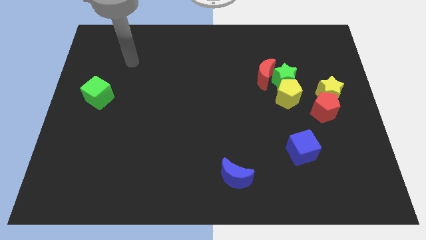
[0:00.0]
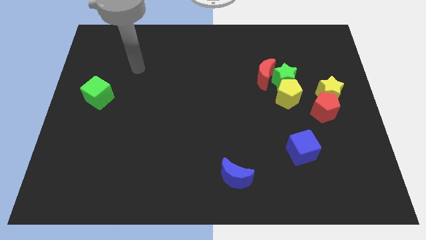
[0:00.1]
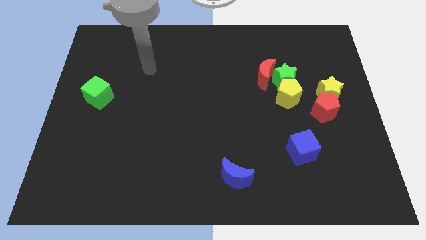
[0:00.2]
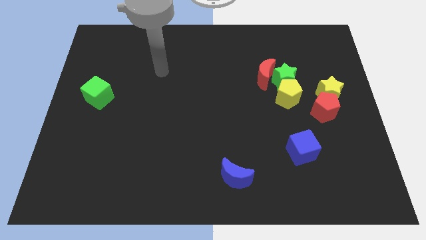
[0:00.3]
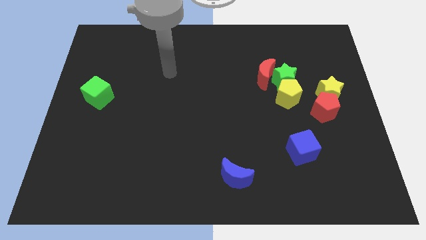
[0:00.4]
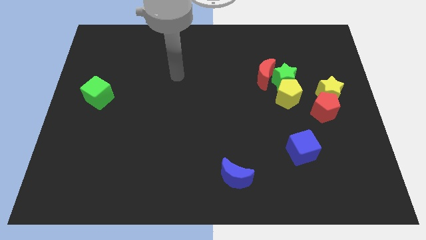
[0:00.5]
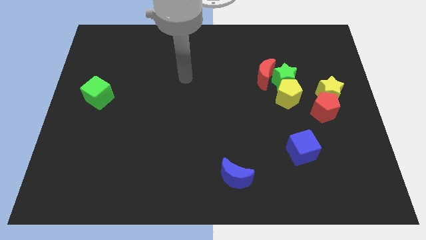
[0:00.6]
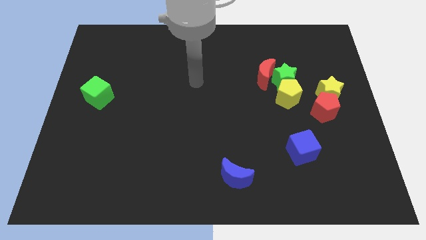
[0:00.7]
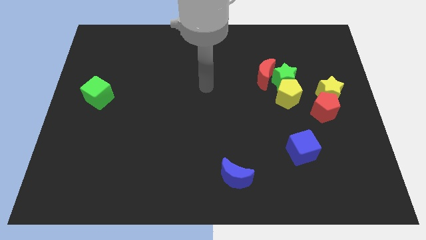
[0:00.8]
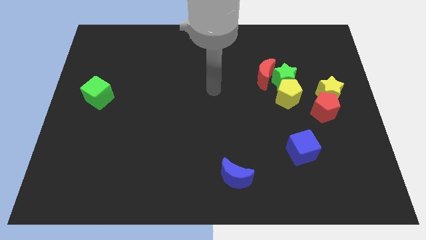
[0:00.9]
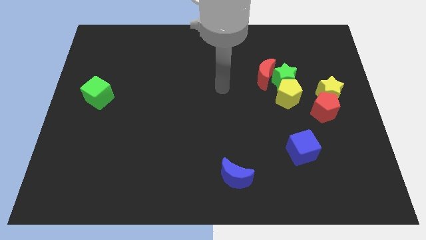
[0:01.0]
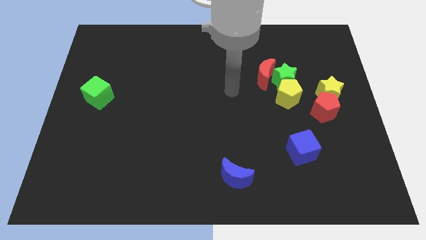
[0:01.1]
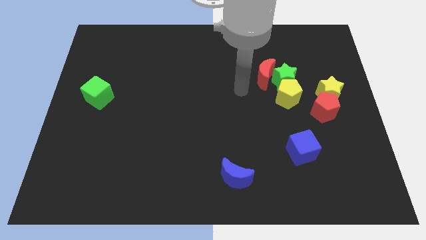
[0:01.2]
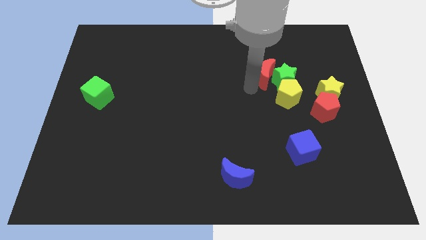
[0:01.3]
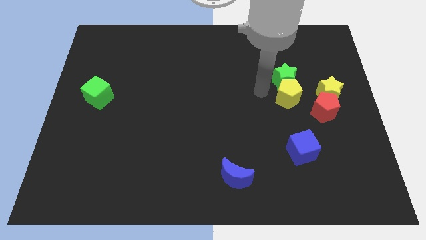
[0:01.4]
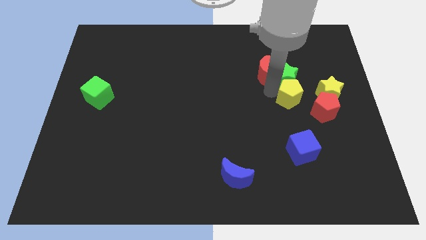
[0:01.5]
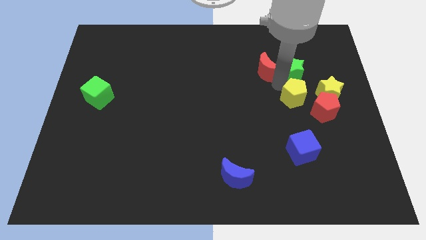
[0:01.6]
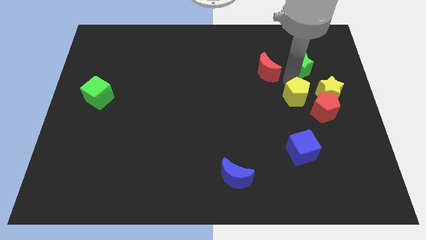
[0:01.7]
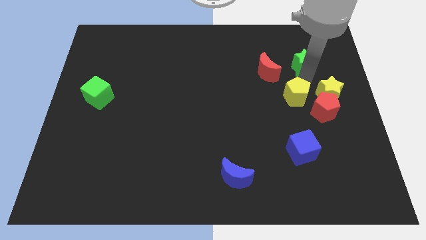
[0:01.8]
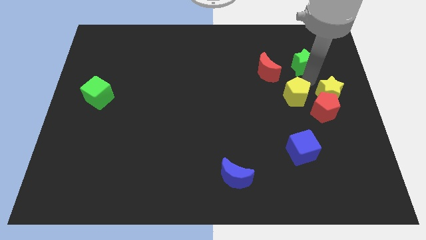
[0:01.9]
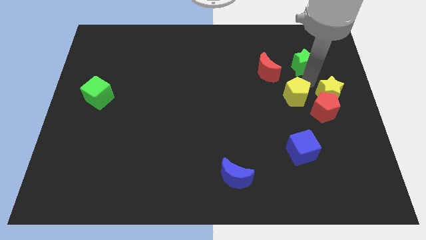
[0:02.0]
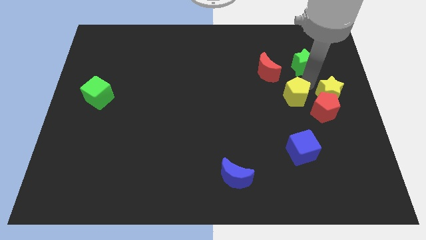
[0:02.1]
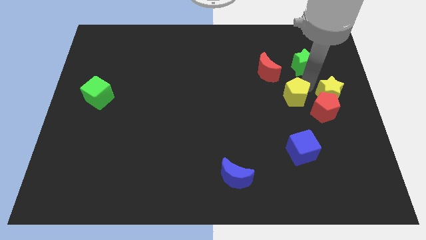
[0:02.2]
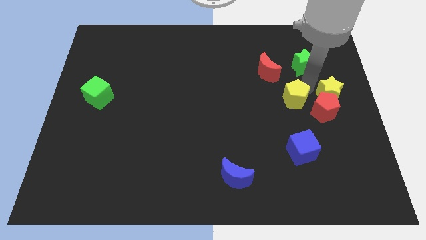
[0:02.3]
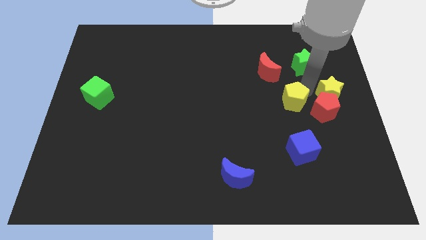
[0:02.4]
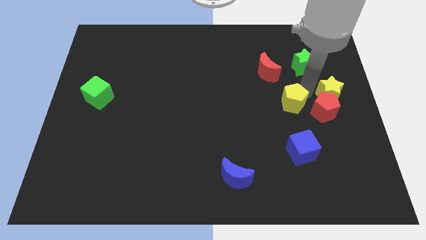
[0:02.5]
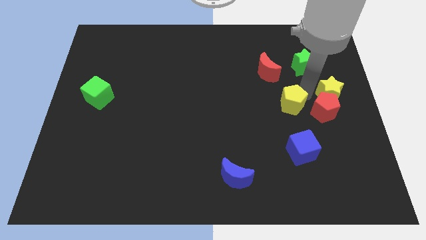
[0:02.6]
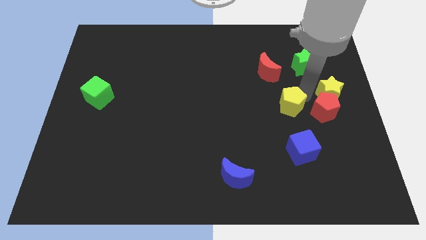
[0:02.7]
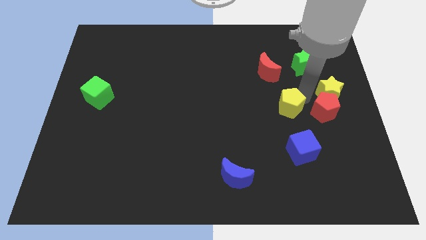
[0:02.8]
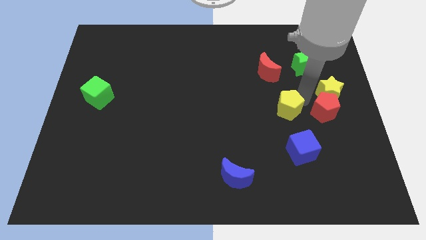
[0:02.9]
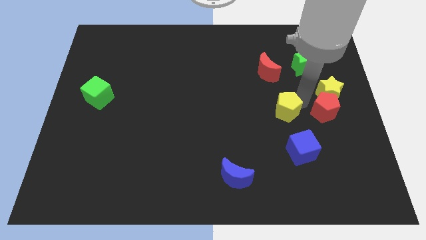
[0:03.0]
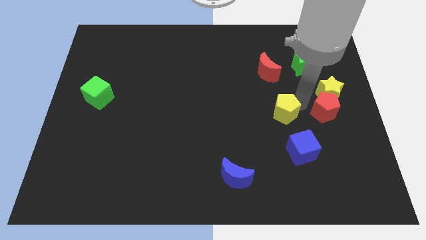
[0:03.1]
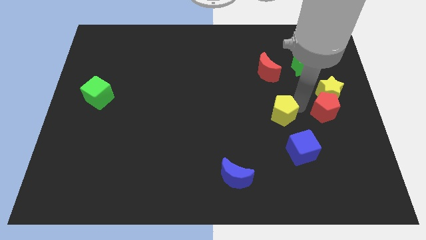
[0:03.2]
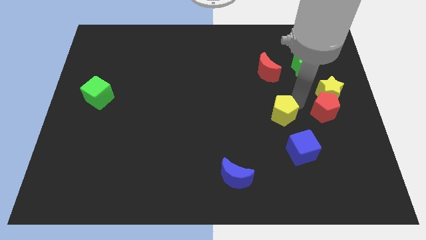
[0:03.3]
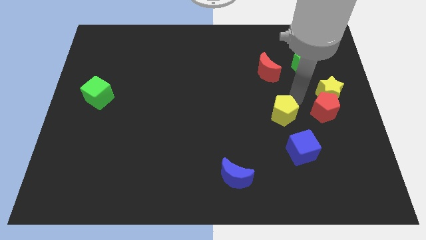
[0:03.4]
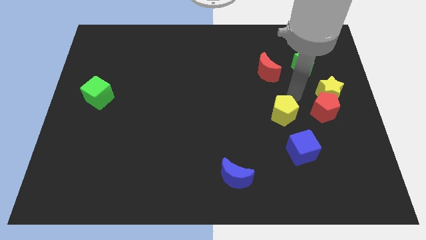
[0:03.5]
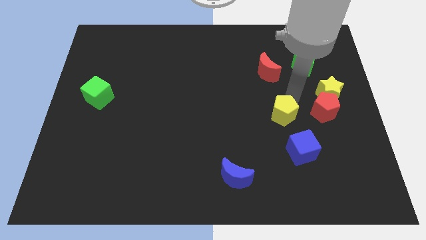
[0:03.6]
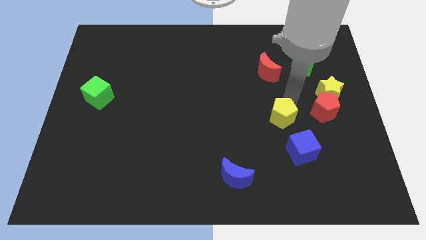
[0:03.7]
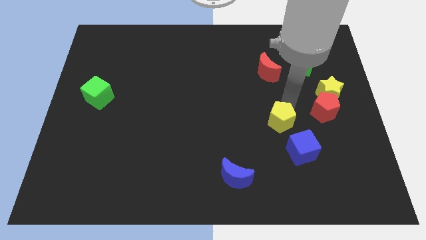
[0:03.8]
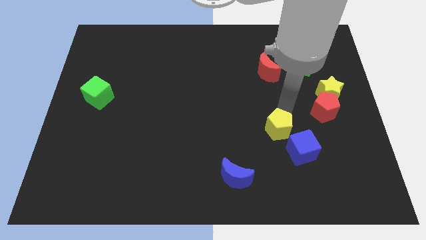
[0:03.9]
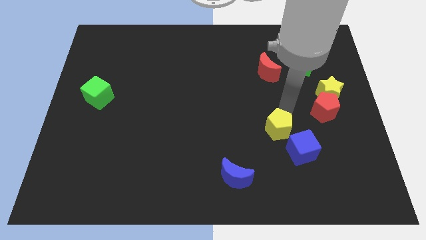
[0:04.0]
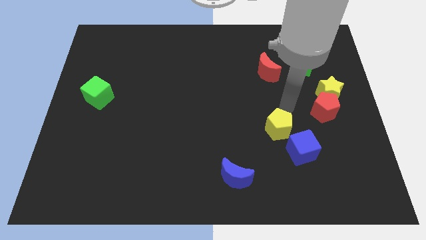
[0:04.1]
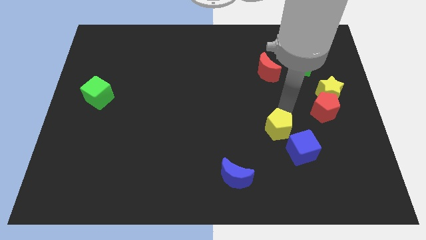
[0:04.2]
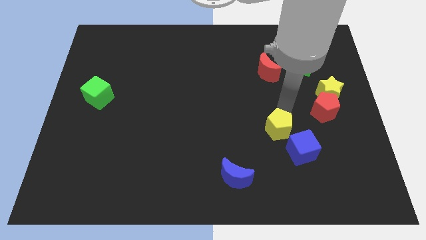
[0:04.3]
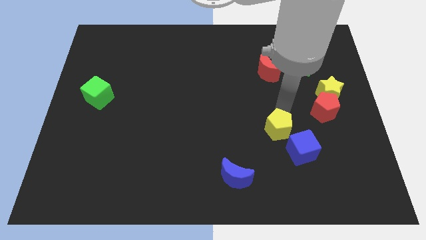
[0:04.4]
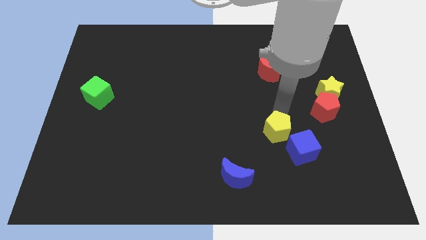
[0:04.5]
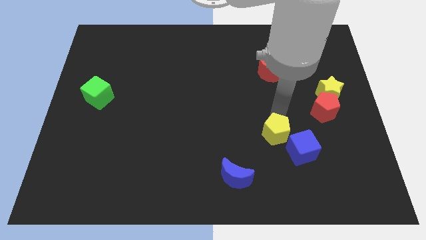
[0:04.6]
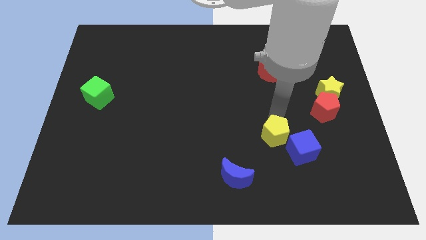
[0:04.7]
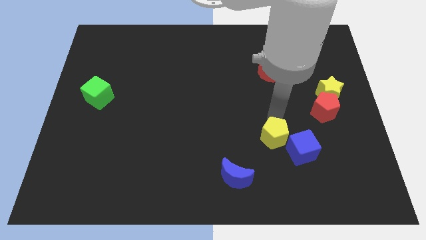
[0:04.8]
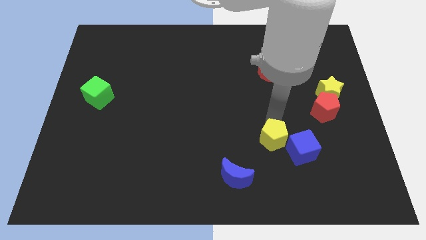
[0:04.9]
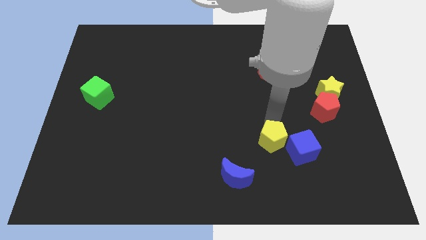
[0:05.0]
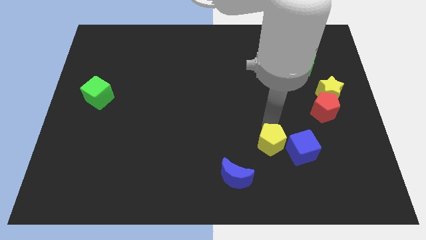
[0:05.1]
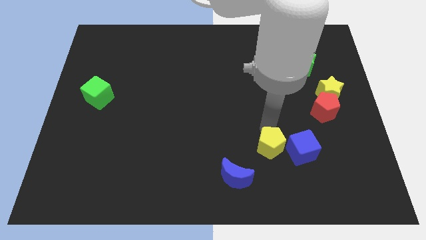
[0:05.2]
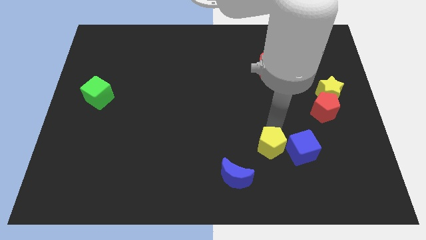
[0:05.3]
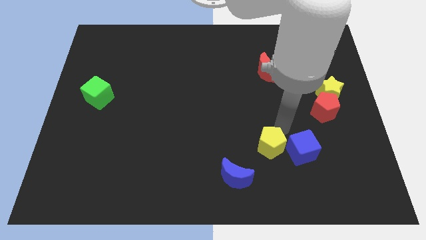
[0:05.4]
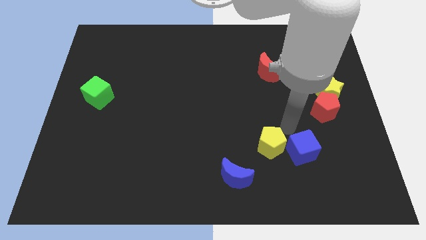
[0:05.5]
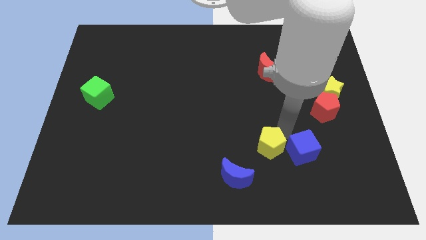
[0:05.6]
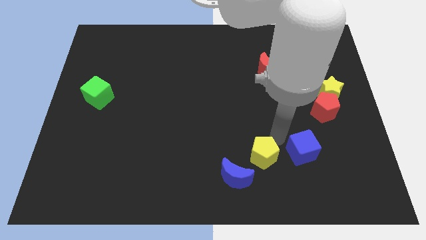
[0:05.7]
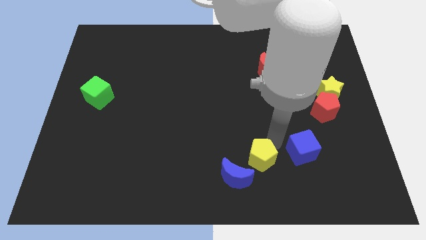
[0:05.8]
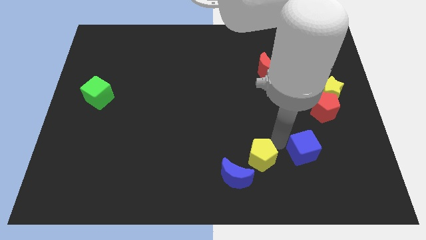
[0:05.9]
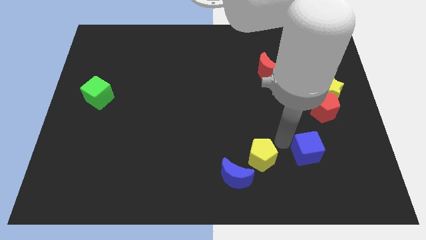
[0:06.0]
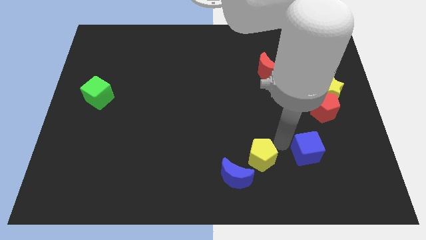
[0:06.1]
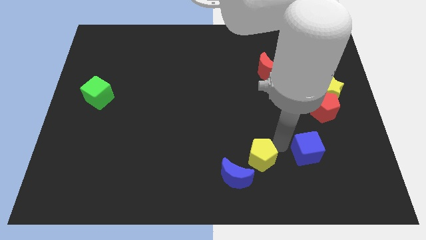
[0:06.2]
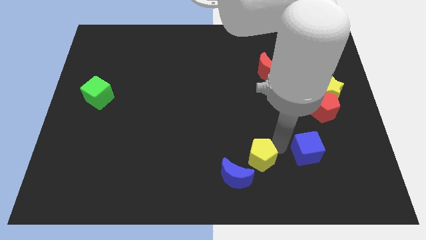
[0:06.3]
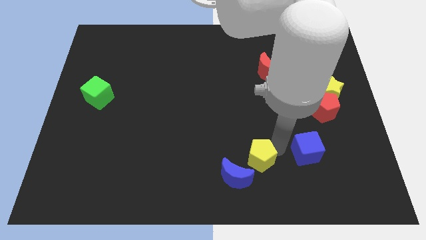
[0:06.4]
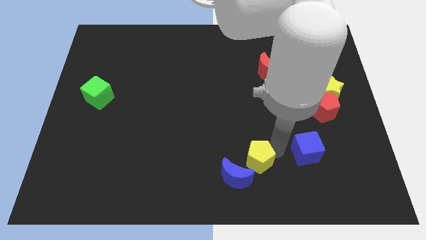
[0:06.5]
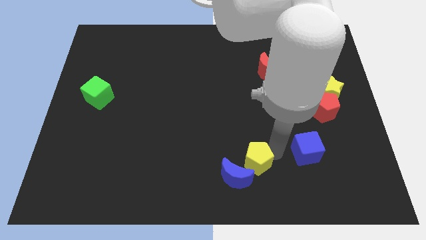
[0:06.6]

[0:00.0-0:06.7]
push the yellow pentagon close to the blue moon

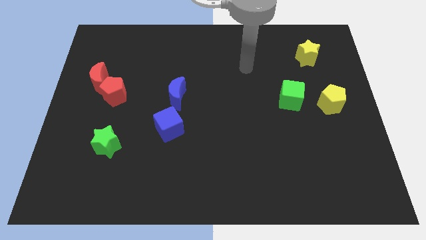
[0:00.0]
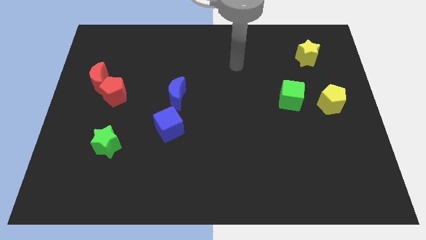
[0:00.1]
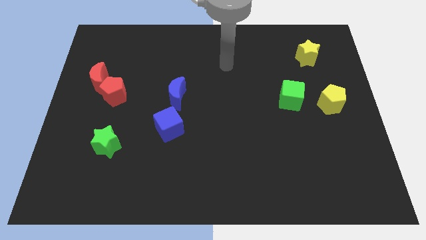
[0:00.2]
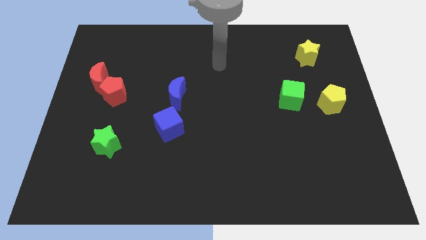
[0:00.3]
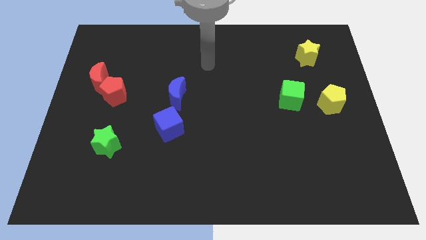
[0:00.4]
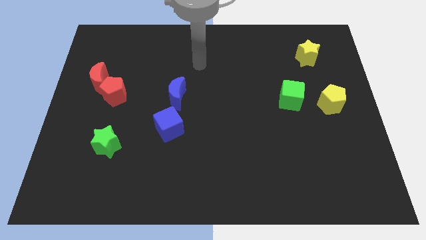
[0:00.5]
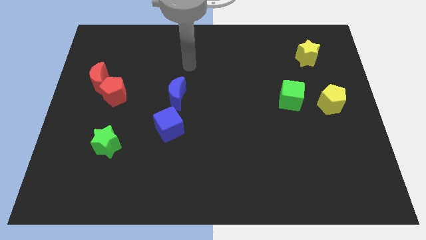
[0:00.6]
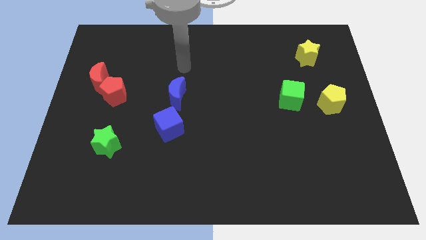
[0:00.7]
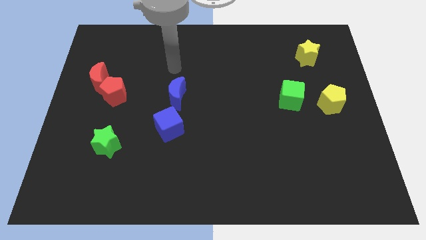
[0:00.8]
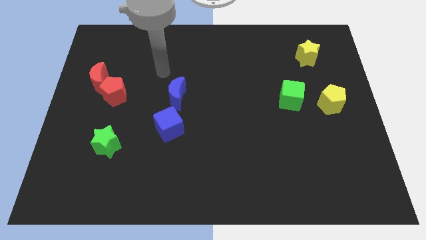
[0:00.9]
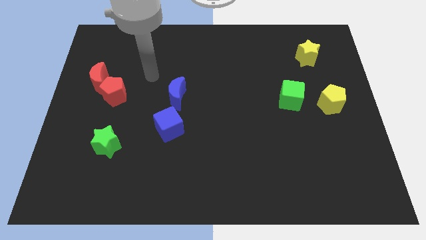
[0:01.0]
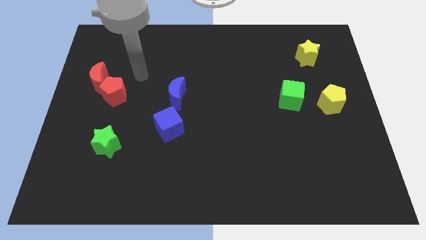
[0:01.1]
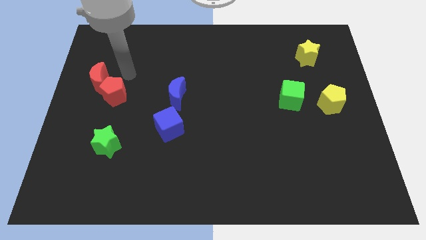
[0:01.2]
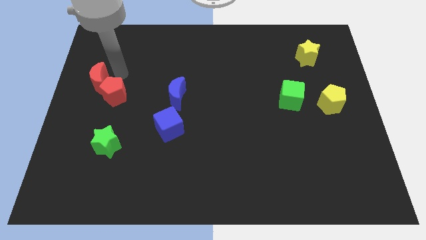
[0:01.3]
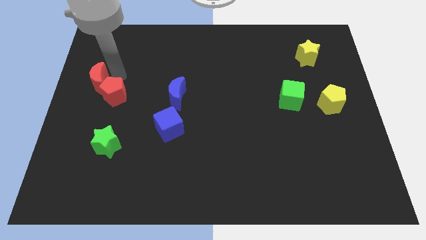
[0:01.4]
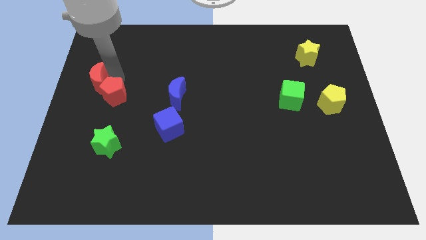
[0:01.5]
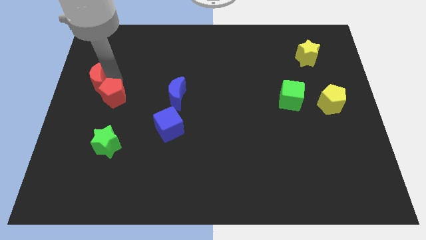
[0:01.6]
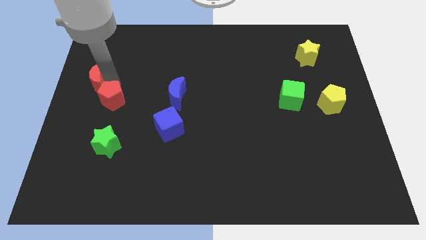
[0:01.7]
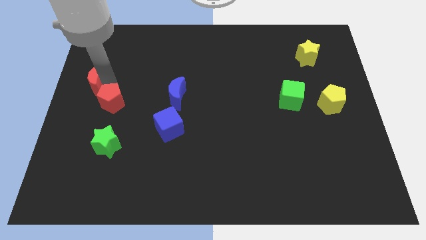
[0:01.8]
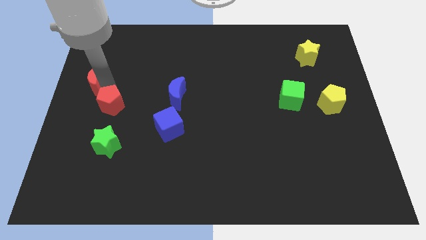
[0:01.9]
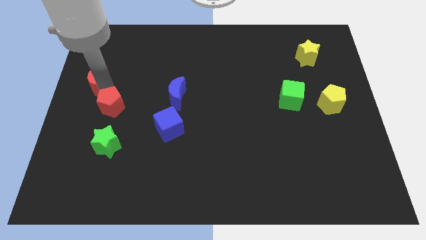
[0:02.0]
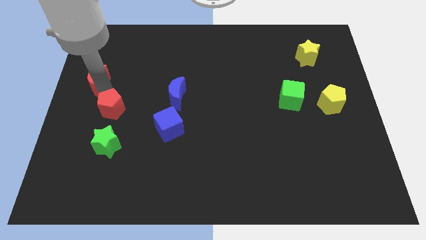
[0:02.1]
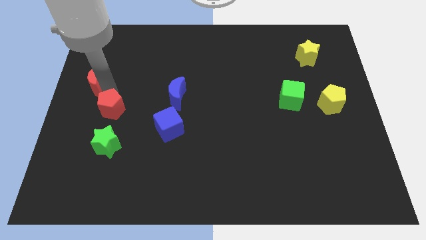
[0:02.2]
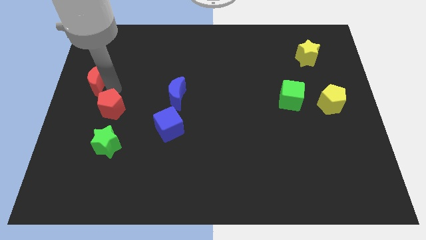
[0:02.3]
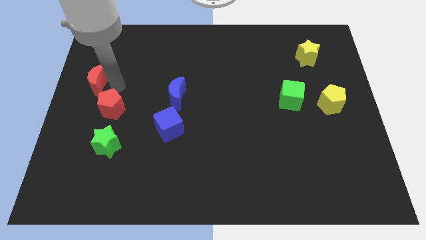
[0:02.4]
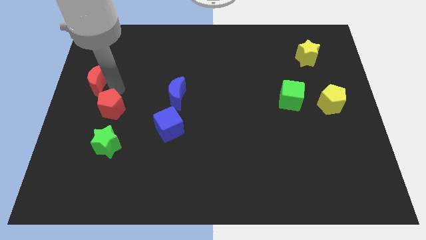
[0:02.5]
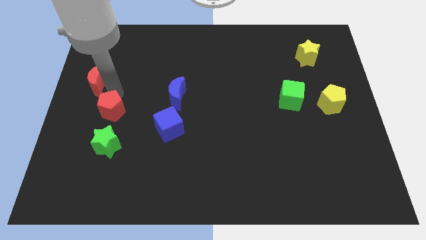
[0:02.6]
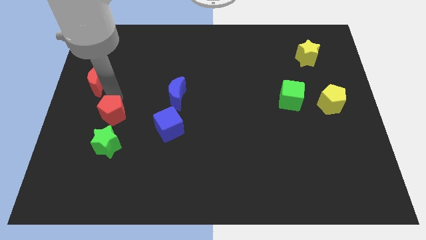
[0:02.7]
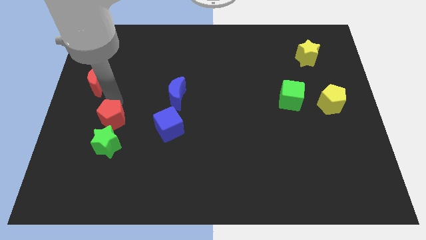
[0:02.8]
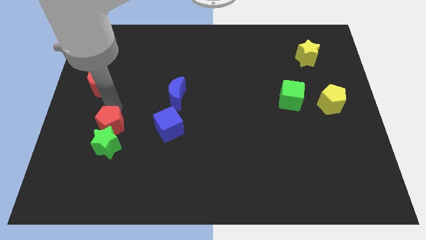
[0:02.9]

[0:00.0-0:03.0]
slide the red pentagon to the green star
